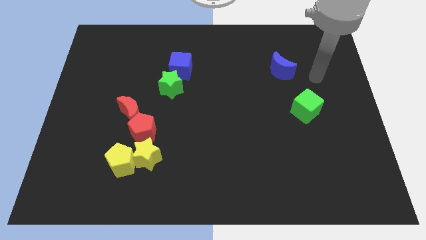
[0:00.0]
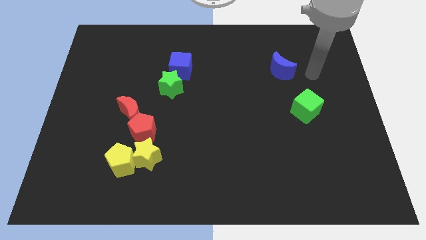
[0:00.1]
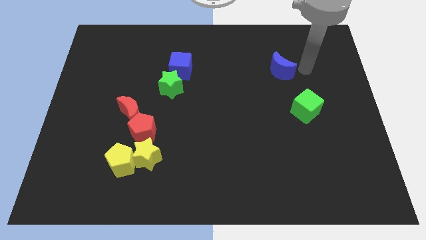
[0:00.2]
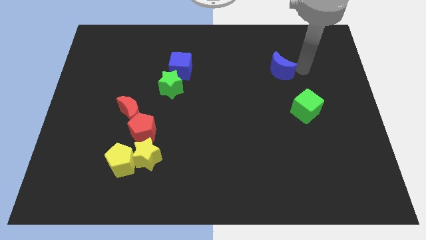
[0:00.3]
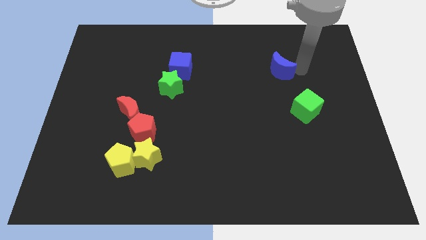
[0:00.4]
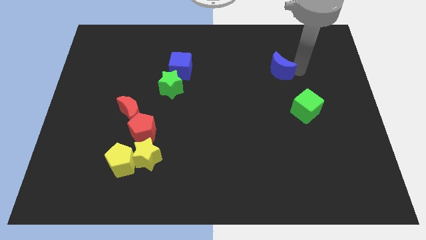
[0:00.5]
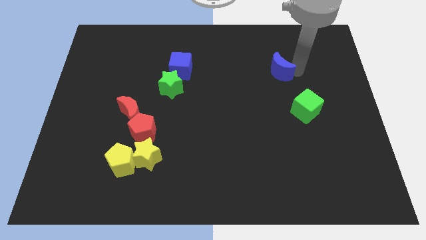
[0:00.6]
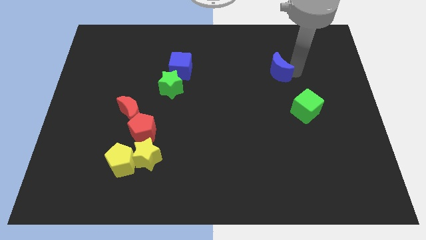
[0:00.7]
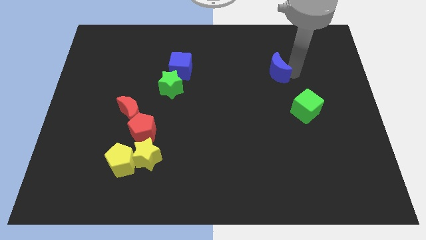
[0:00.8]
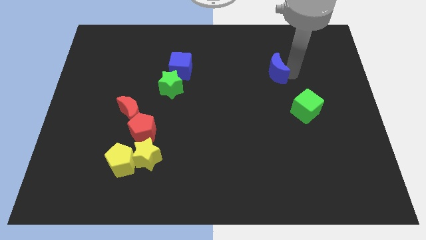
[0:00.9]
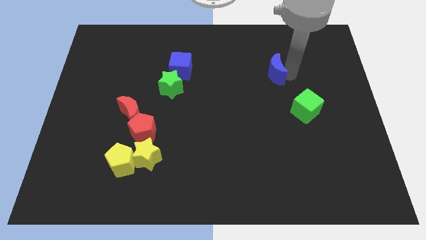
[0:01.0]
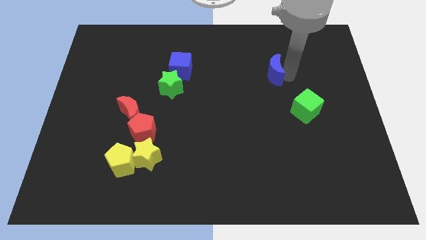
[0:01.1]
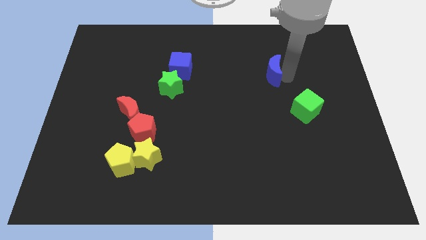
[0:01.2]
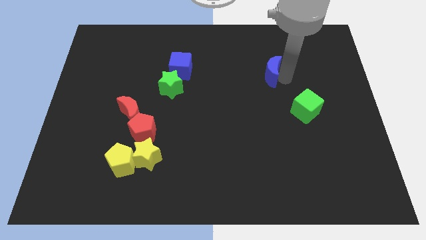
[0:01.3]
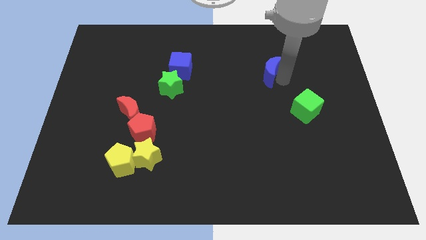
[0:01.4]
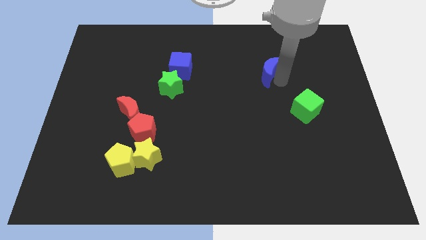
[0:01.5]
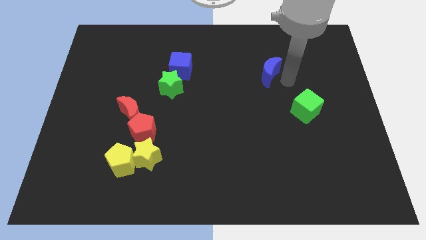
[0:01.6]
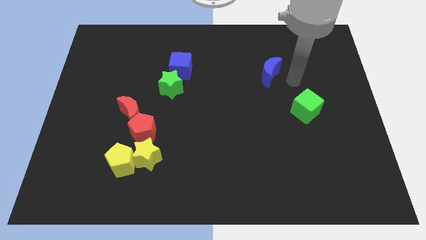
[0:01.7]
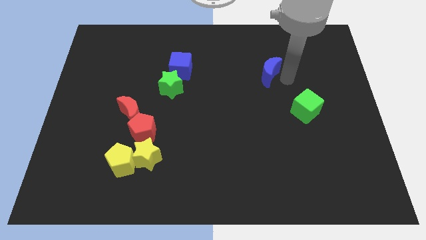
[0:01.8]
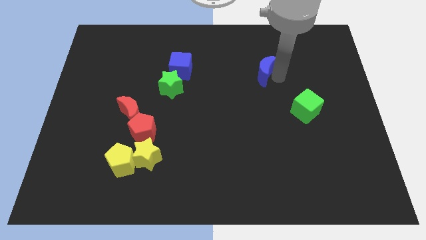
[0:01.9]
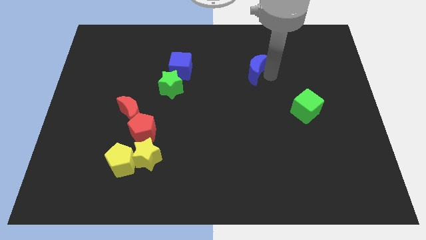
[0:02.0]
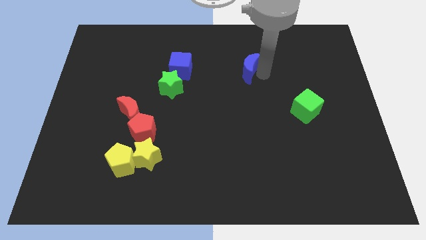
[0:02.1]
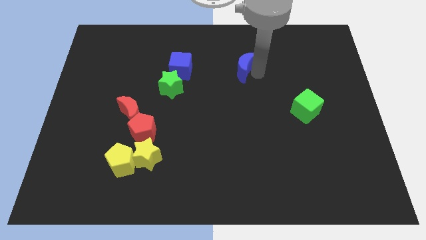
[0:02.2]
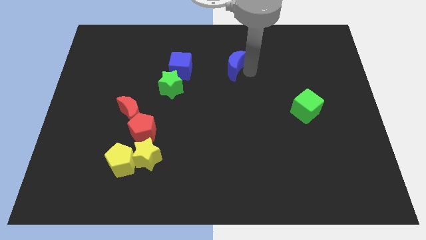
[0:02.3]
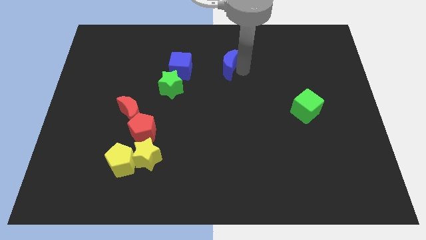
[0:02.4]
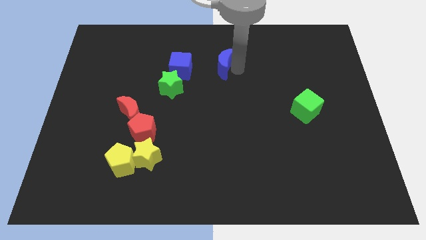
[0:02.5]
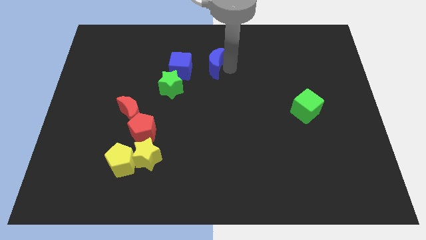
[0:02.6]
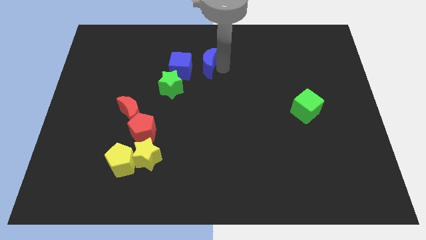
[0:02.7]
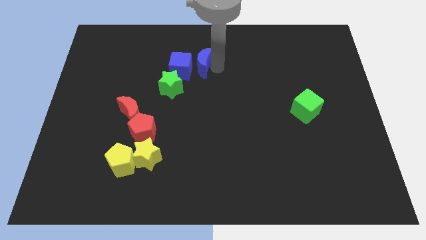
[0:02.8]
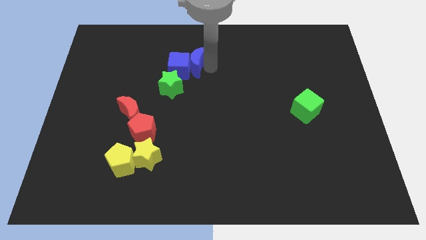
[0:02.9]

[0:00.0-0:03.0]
slide the blue moon to the left

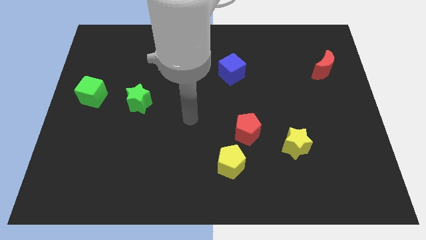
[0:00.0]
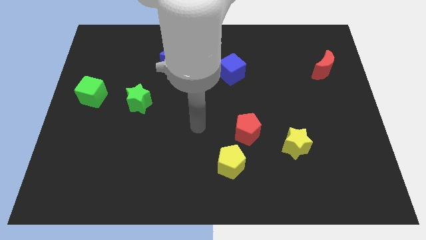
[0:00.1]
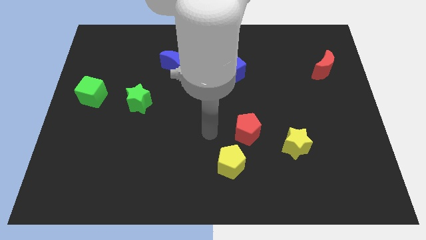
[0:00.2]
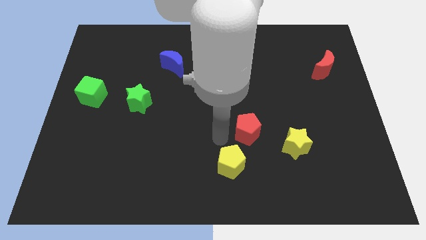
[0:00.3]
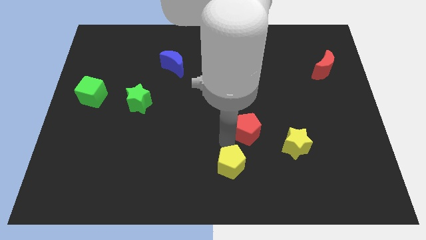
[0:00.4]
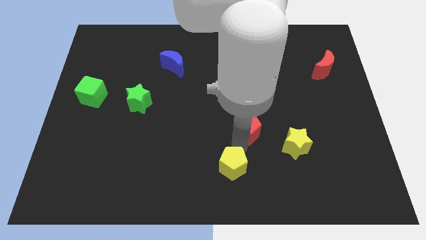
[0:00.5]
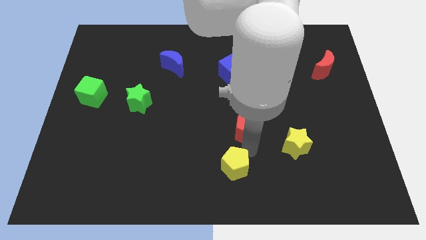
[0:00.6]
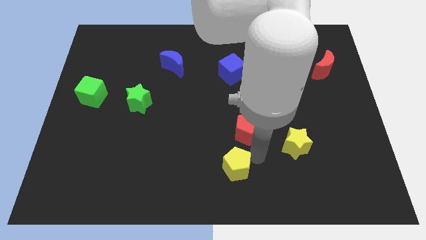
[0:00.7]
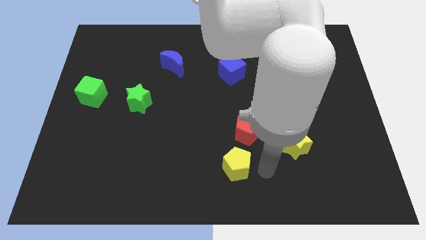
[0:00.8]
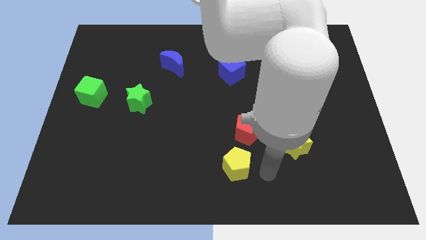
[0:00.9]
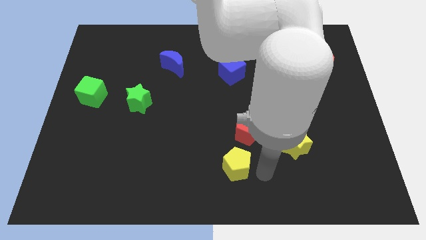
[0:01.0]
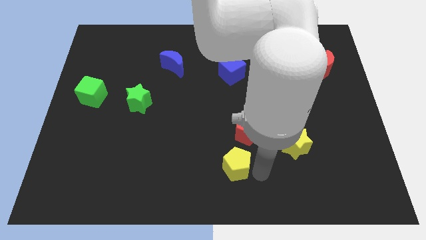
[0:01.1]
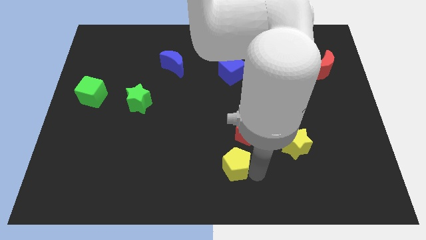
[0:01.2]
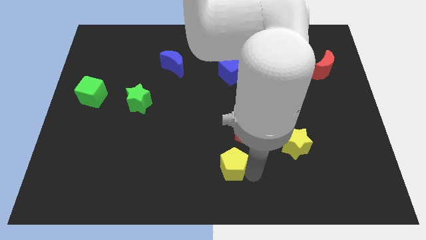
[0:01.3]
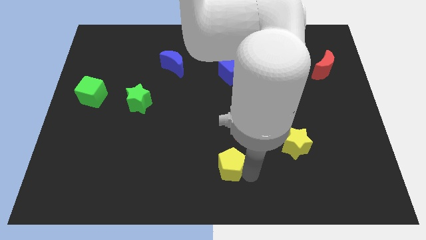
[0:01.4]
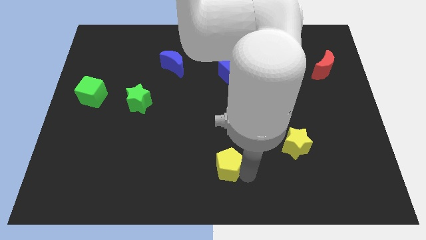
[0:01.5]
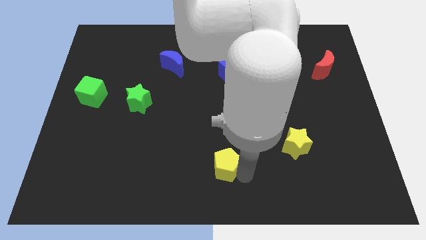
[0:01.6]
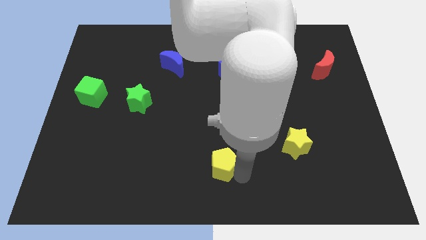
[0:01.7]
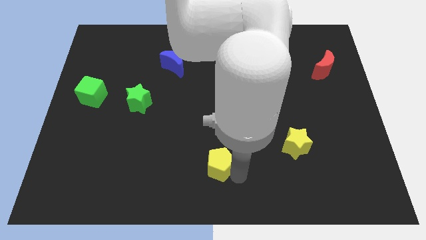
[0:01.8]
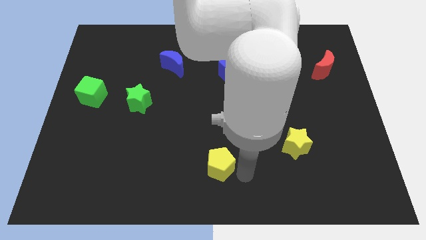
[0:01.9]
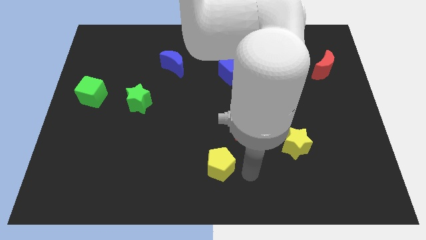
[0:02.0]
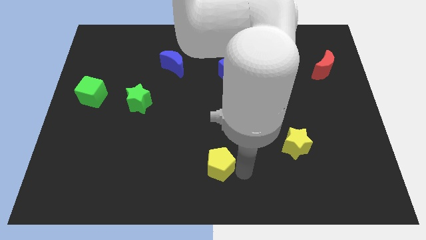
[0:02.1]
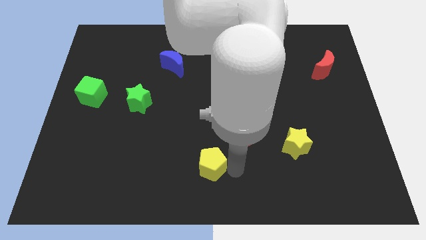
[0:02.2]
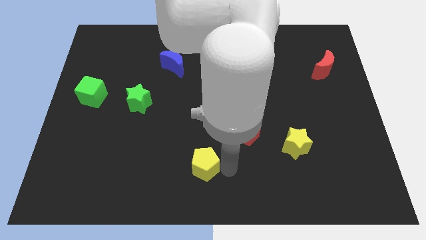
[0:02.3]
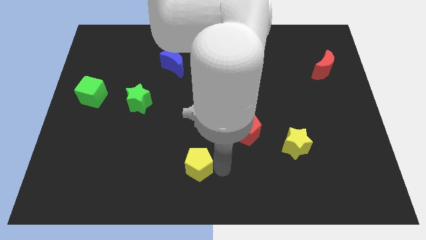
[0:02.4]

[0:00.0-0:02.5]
slide the yellow pentagon left a bit

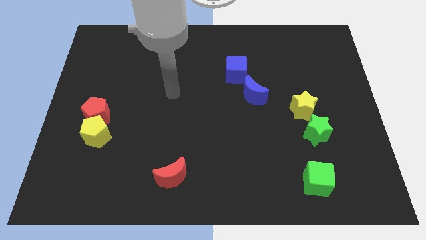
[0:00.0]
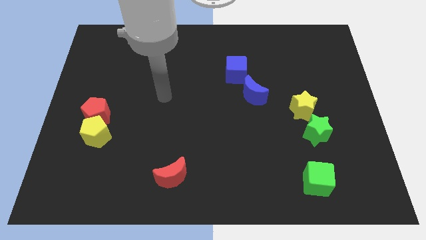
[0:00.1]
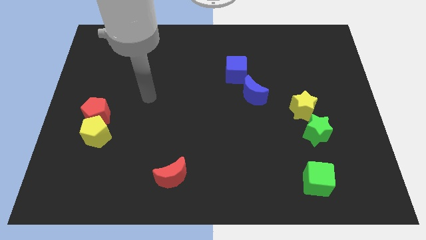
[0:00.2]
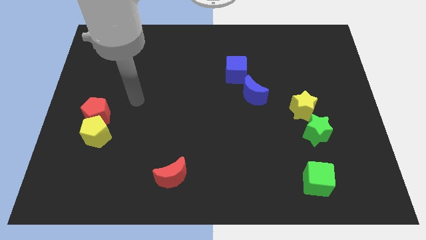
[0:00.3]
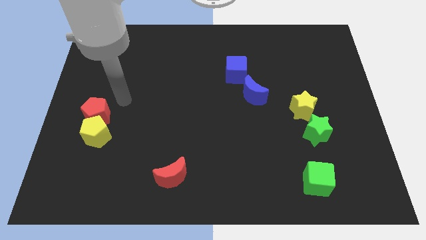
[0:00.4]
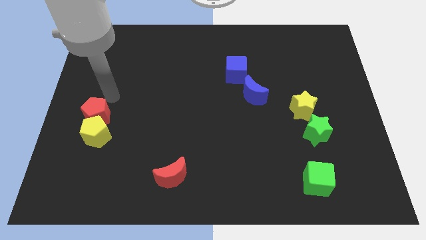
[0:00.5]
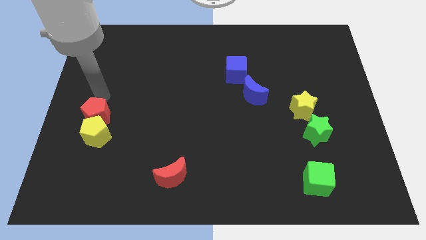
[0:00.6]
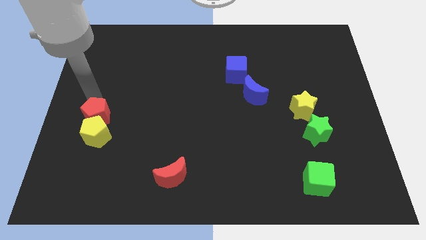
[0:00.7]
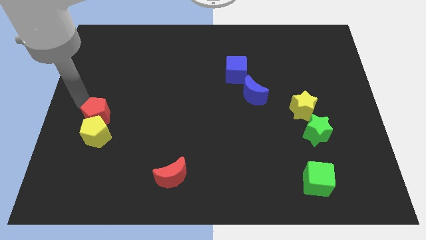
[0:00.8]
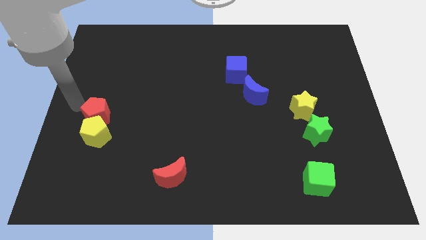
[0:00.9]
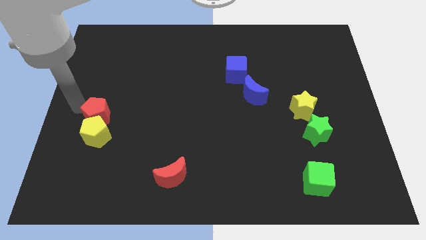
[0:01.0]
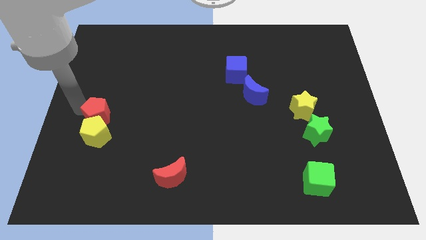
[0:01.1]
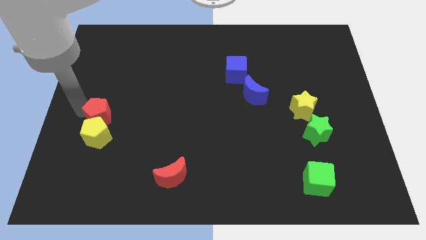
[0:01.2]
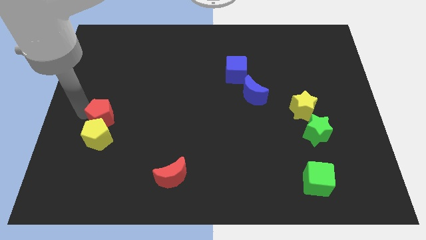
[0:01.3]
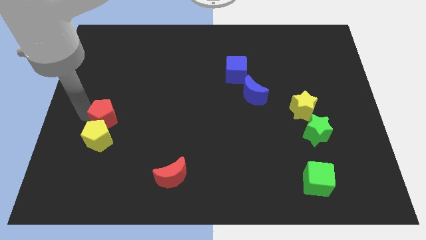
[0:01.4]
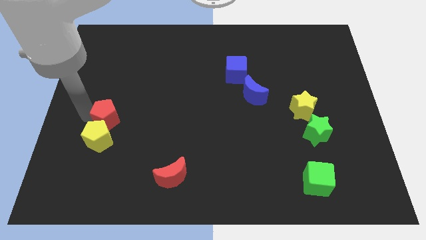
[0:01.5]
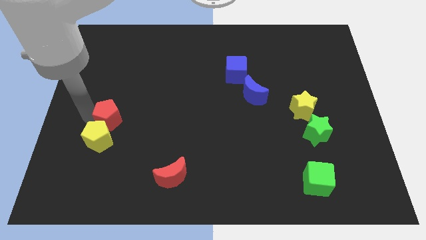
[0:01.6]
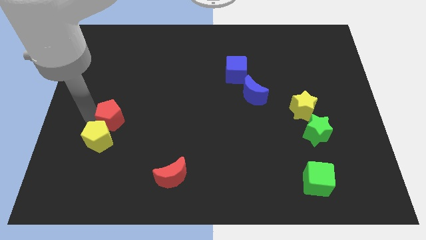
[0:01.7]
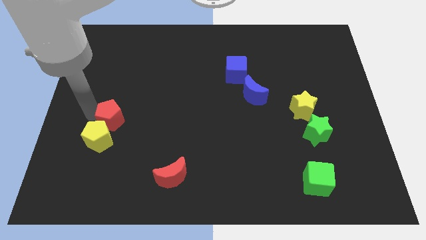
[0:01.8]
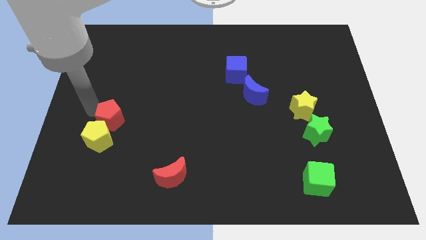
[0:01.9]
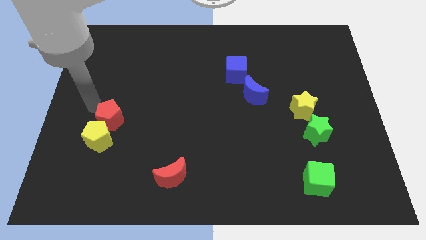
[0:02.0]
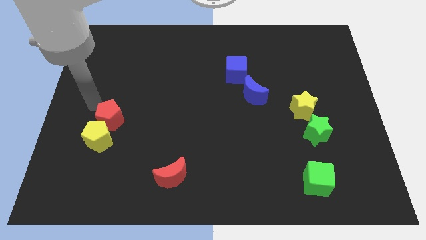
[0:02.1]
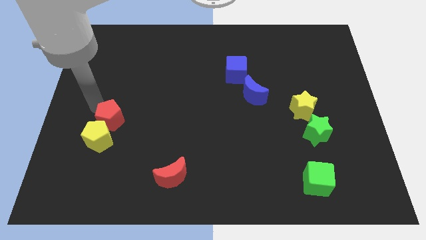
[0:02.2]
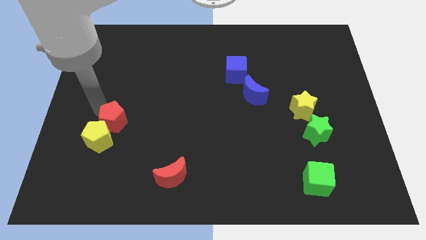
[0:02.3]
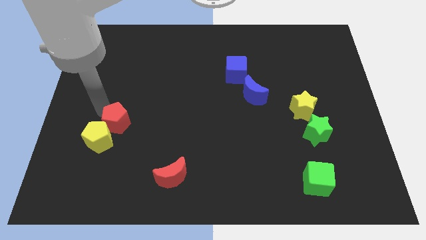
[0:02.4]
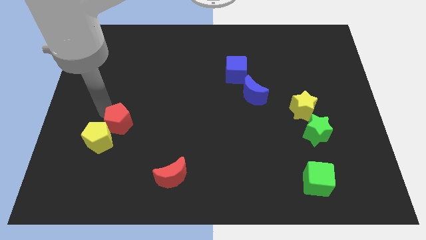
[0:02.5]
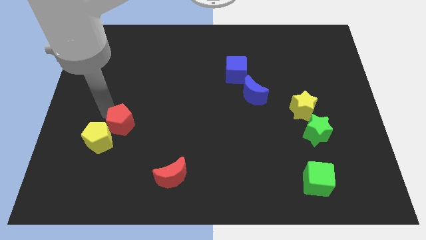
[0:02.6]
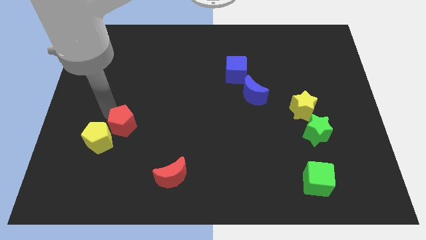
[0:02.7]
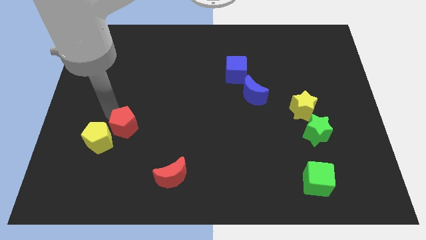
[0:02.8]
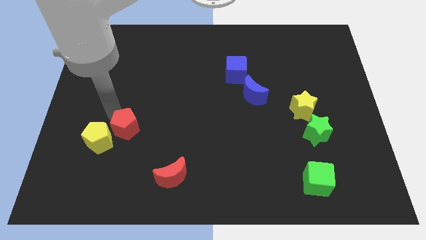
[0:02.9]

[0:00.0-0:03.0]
slightly push the red pentagon downwards and then to the right
